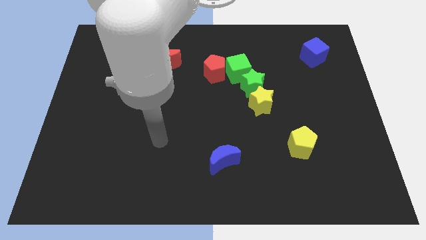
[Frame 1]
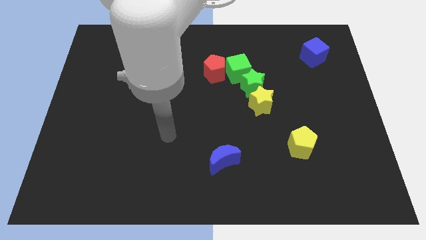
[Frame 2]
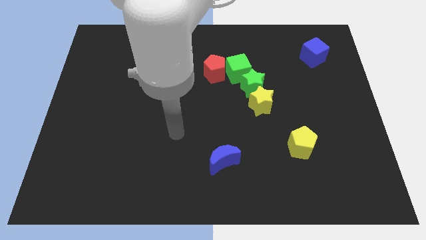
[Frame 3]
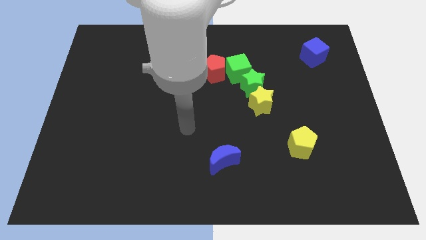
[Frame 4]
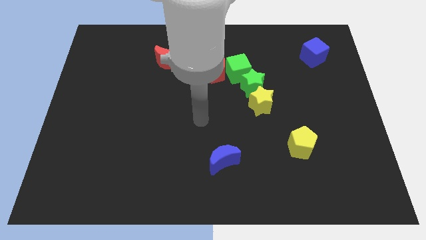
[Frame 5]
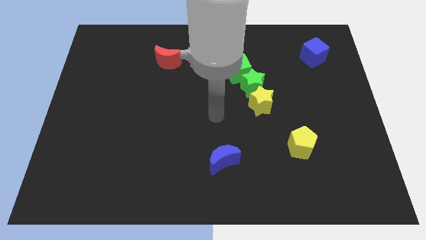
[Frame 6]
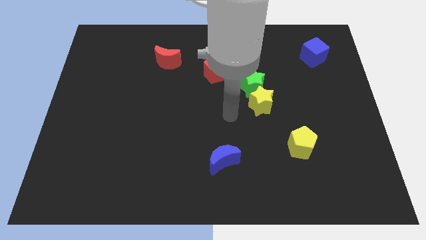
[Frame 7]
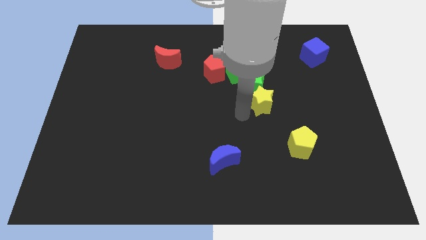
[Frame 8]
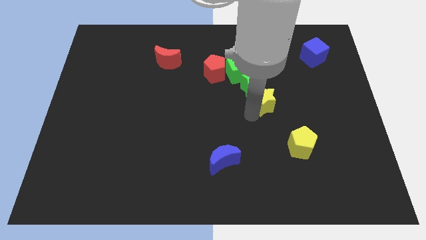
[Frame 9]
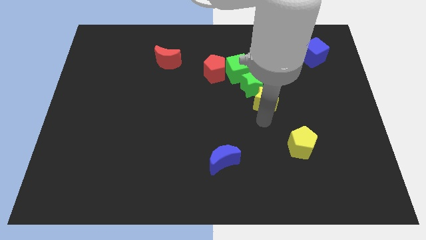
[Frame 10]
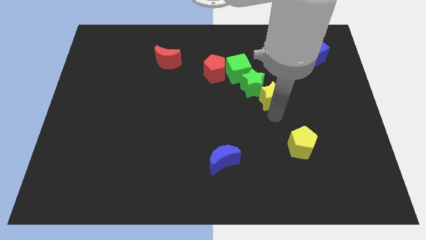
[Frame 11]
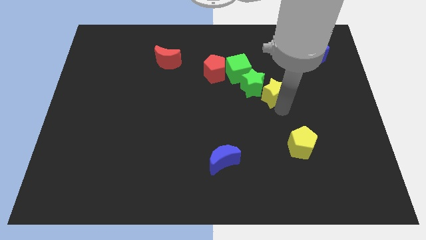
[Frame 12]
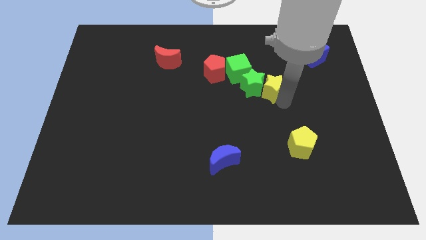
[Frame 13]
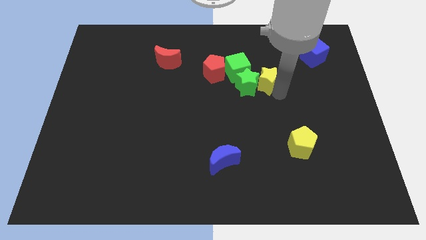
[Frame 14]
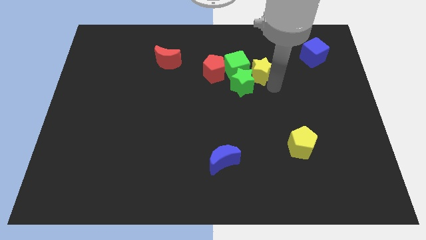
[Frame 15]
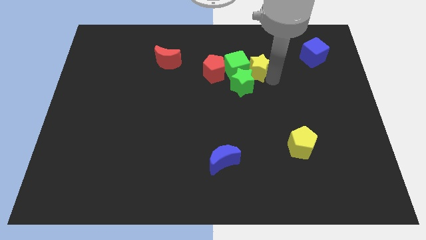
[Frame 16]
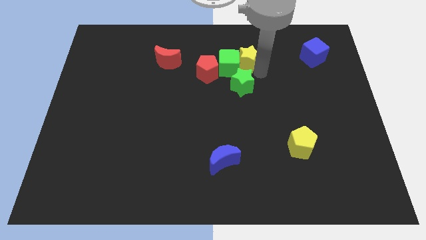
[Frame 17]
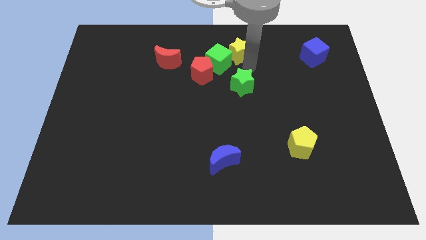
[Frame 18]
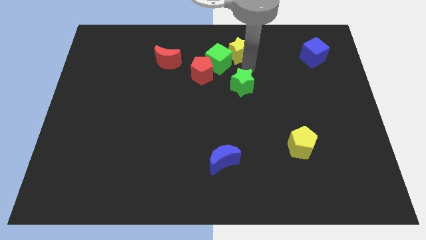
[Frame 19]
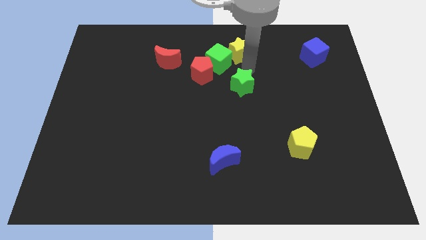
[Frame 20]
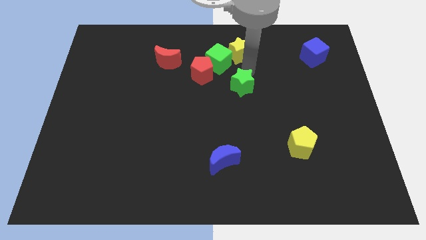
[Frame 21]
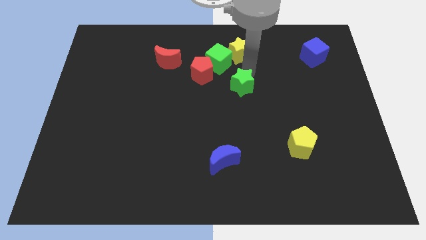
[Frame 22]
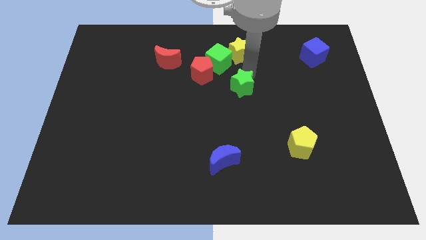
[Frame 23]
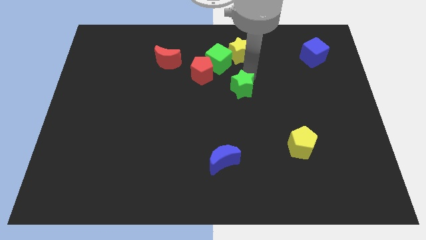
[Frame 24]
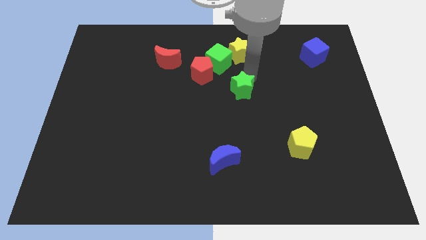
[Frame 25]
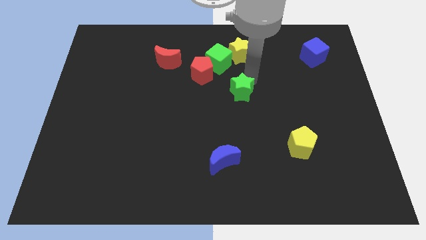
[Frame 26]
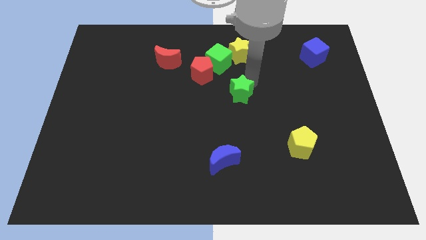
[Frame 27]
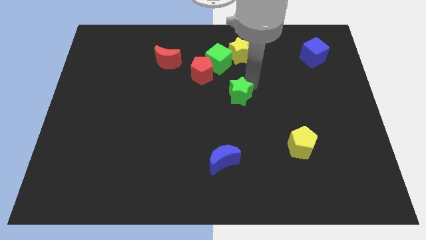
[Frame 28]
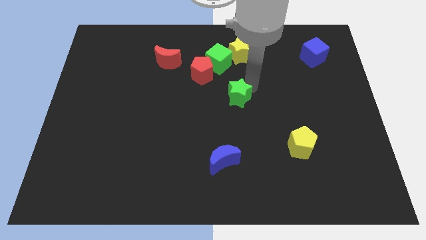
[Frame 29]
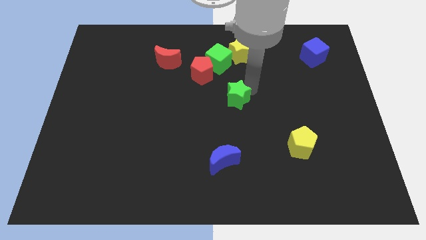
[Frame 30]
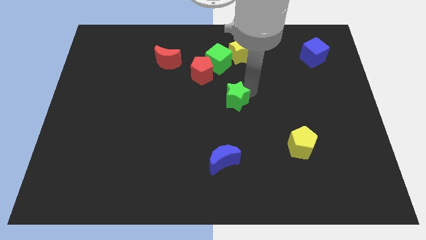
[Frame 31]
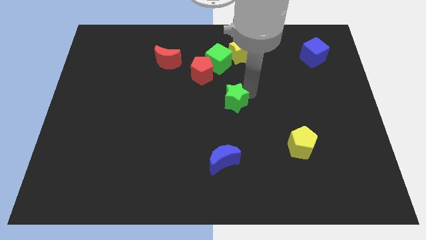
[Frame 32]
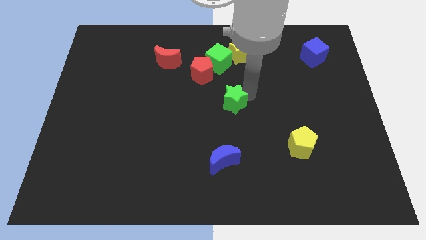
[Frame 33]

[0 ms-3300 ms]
move the green star a bit downwards and left diagonally

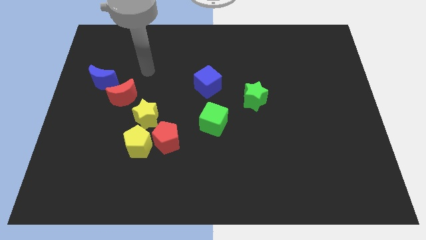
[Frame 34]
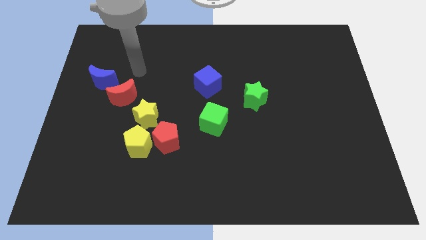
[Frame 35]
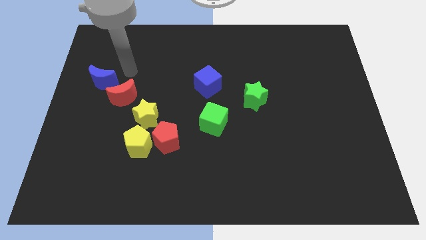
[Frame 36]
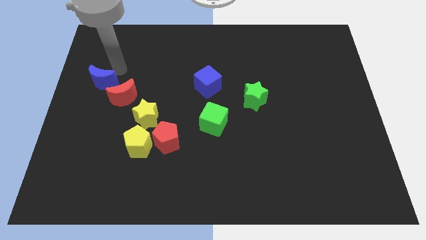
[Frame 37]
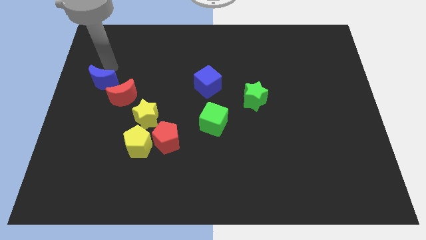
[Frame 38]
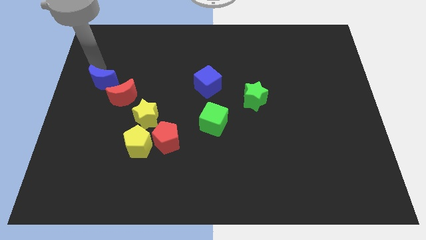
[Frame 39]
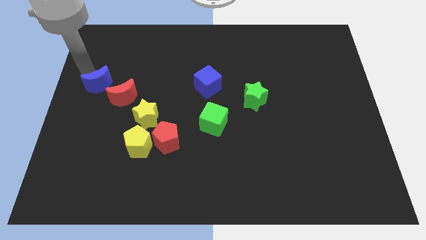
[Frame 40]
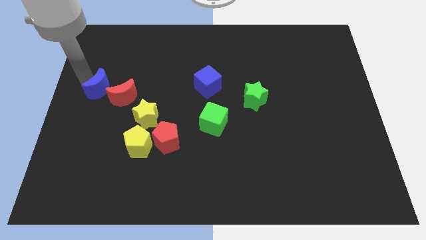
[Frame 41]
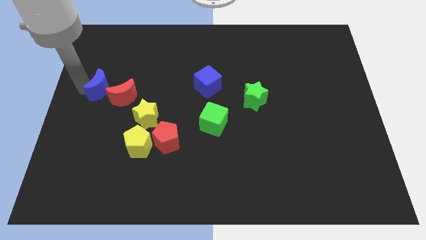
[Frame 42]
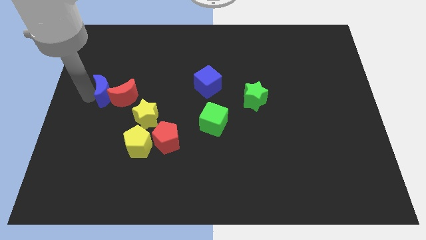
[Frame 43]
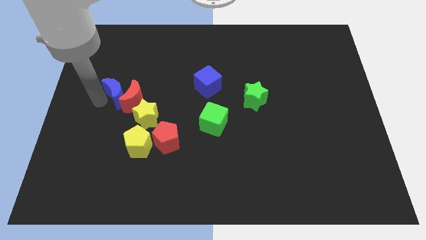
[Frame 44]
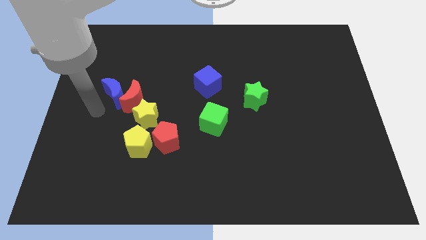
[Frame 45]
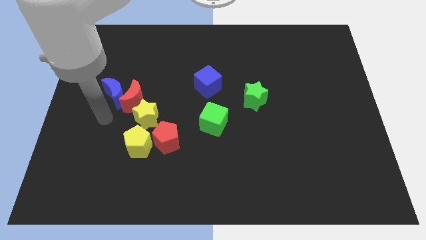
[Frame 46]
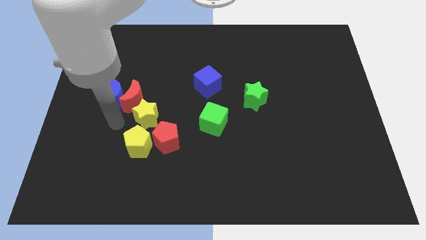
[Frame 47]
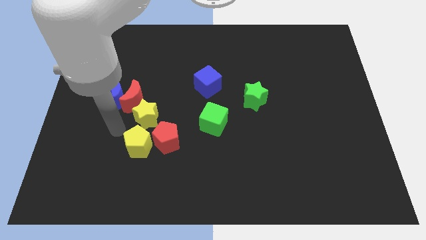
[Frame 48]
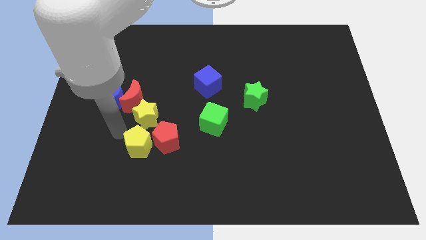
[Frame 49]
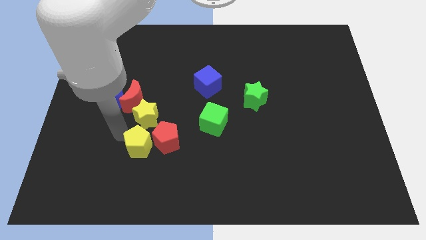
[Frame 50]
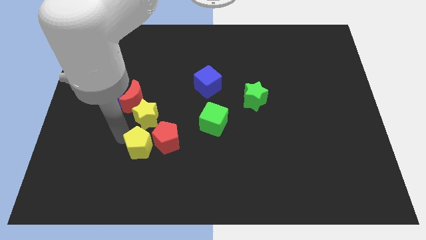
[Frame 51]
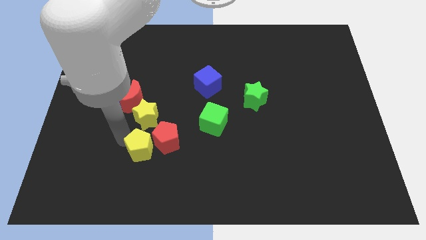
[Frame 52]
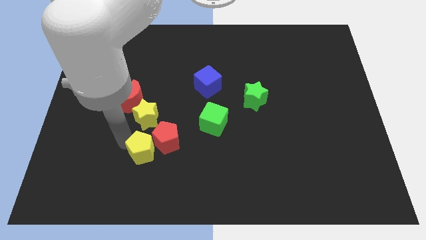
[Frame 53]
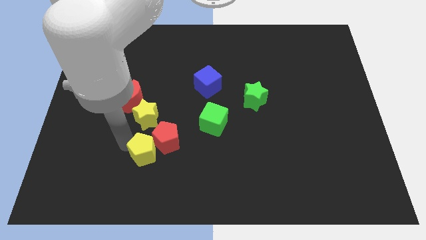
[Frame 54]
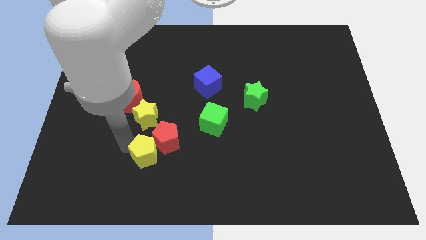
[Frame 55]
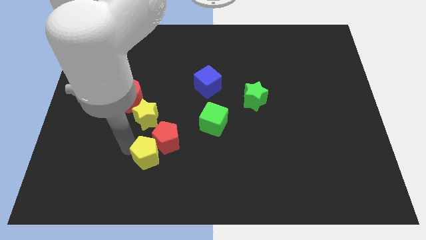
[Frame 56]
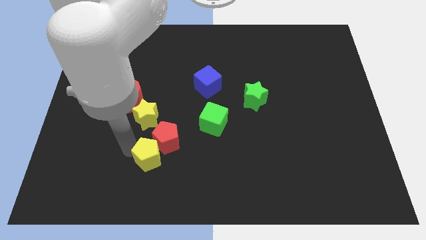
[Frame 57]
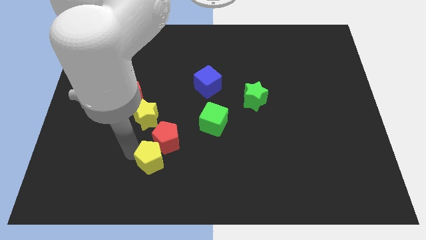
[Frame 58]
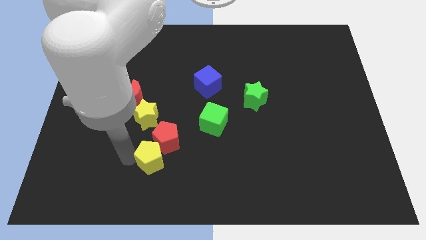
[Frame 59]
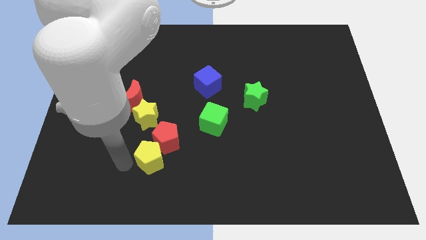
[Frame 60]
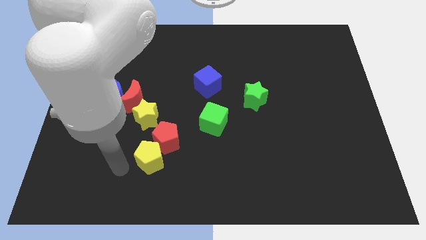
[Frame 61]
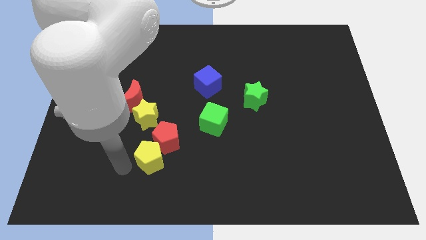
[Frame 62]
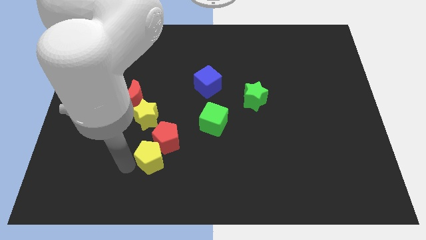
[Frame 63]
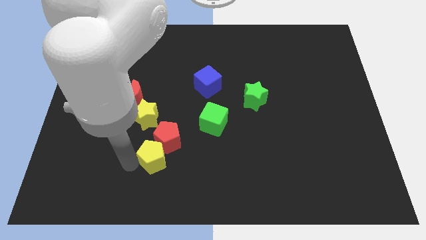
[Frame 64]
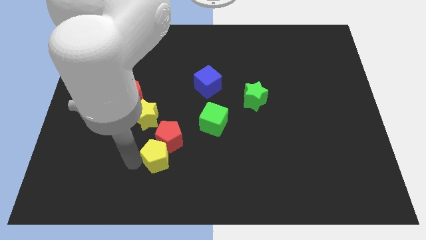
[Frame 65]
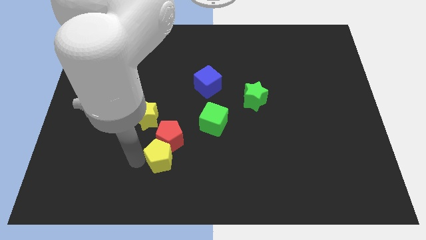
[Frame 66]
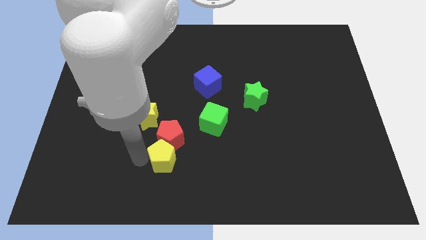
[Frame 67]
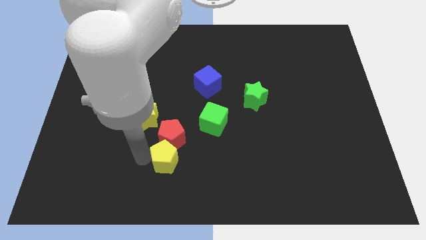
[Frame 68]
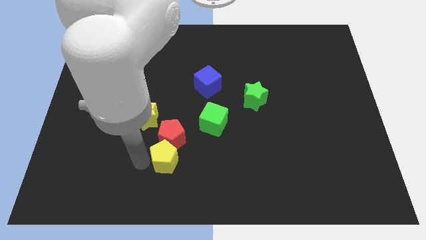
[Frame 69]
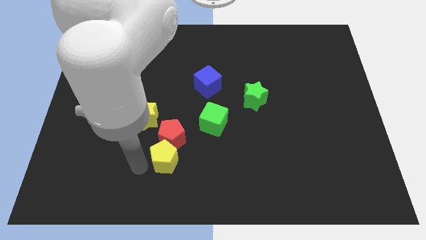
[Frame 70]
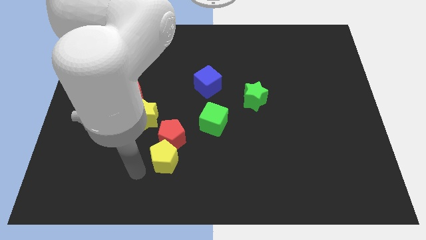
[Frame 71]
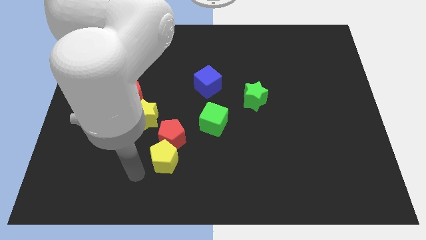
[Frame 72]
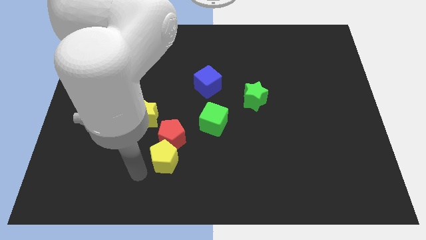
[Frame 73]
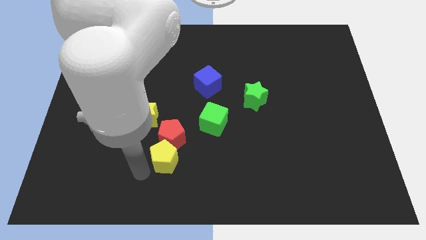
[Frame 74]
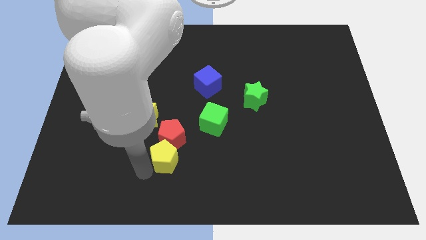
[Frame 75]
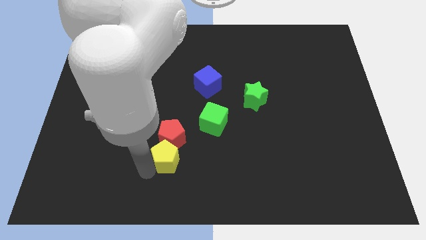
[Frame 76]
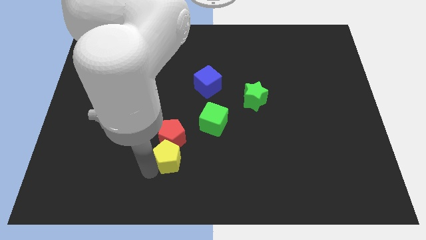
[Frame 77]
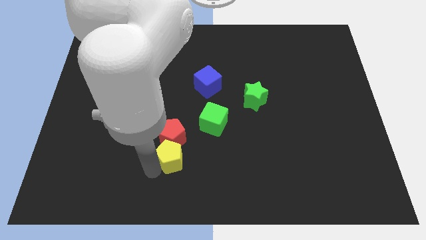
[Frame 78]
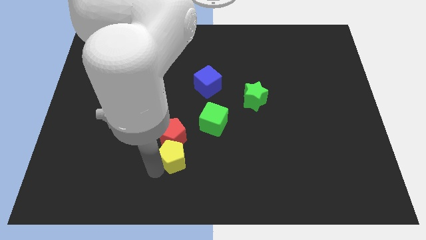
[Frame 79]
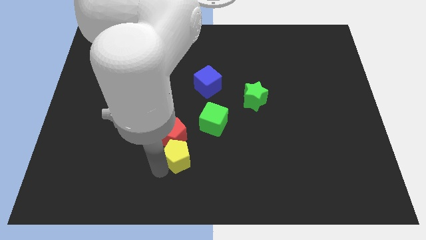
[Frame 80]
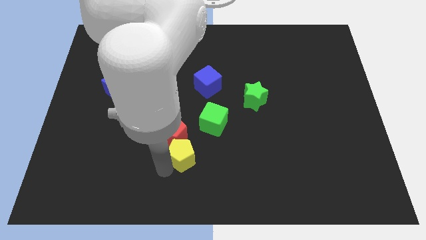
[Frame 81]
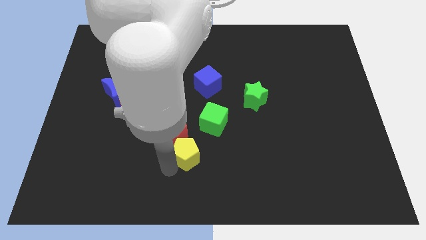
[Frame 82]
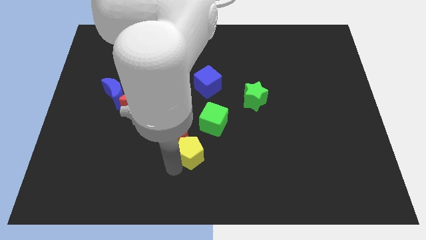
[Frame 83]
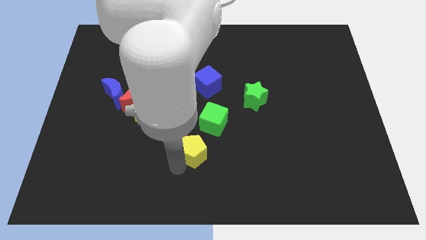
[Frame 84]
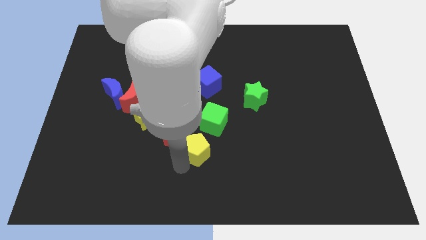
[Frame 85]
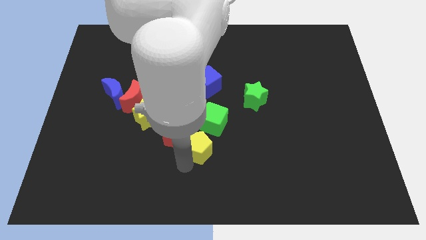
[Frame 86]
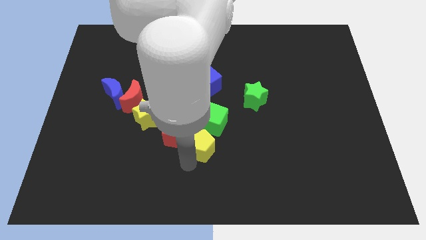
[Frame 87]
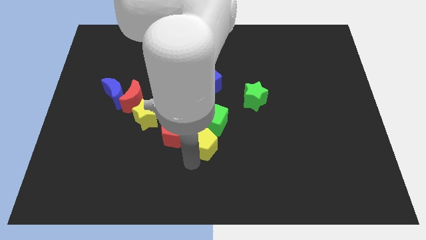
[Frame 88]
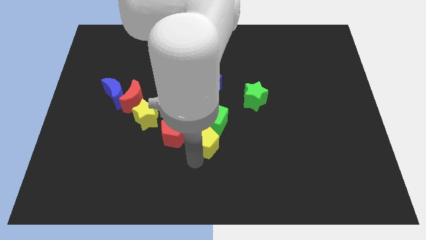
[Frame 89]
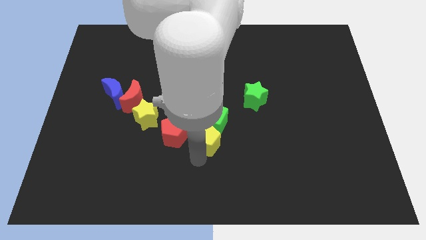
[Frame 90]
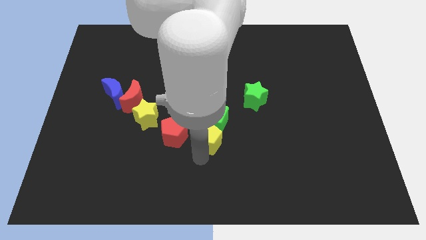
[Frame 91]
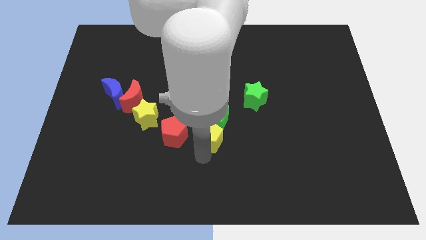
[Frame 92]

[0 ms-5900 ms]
push the yellow pentagon somewhat upwards and then to the right
